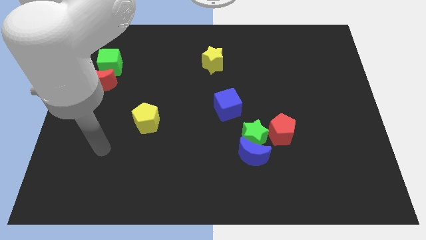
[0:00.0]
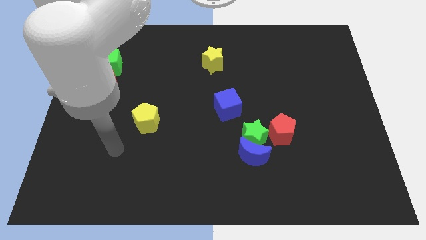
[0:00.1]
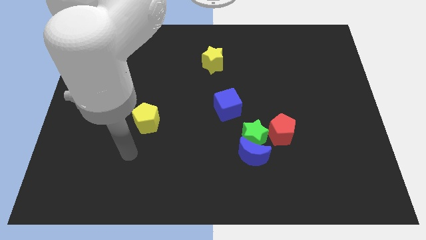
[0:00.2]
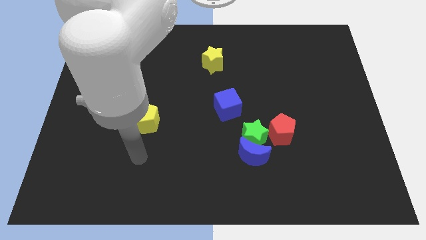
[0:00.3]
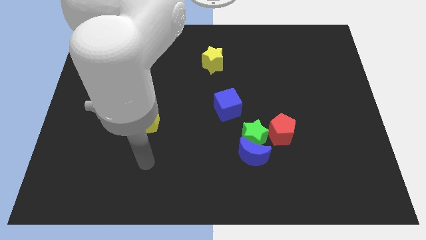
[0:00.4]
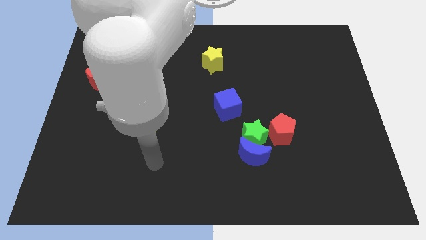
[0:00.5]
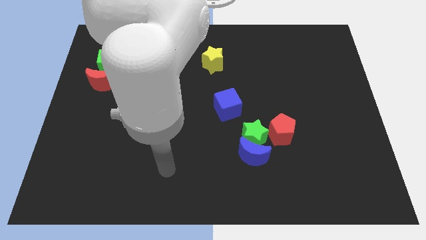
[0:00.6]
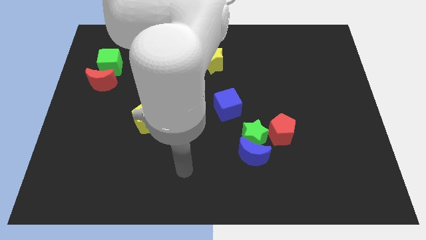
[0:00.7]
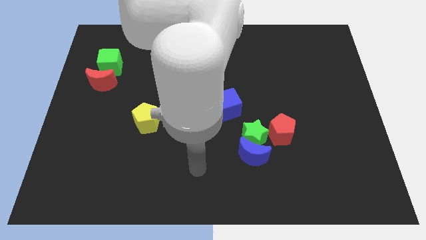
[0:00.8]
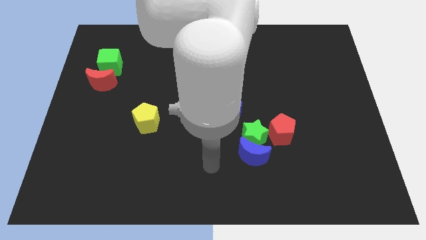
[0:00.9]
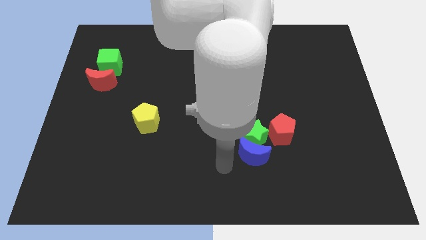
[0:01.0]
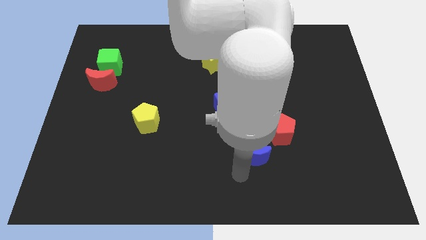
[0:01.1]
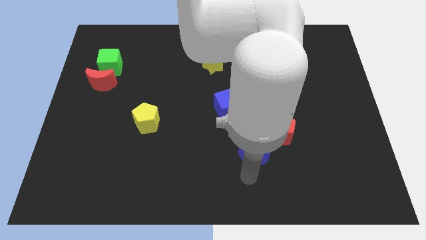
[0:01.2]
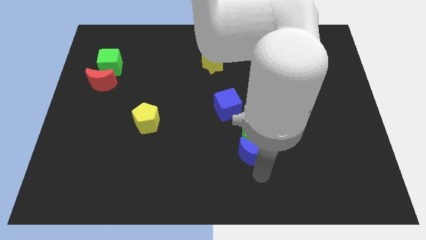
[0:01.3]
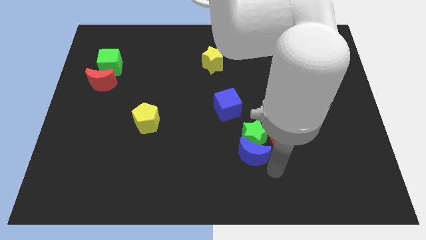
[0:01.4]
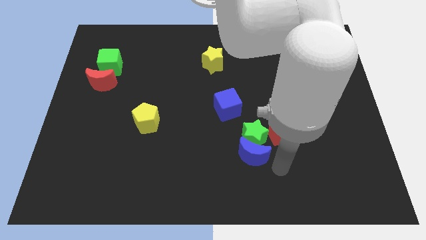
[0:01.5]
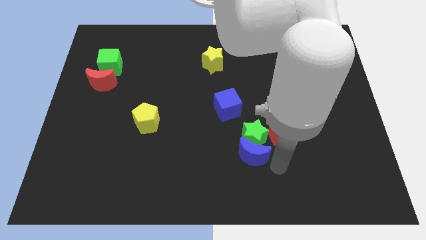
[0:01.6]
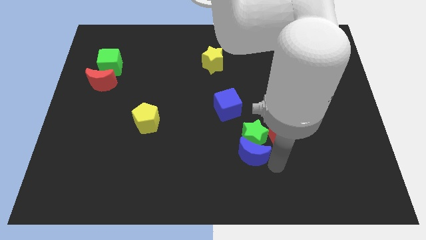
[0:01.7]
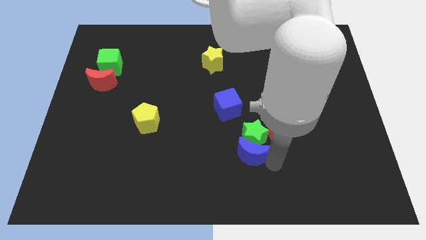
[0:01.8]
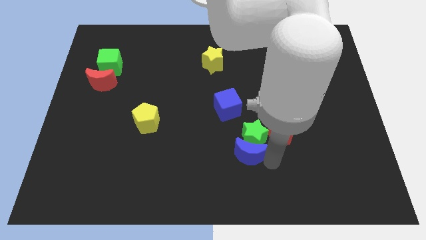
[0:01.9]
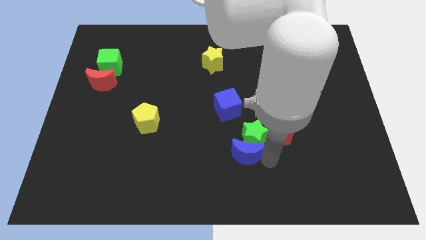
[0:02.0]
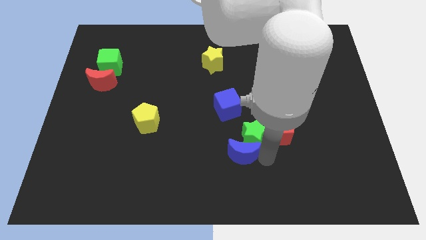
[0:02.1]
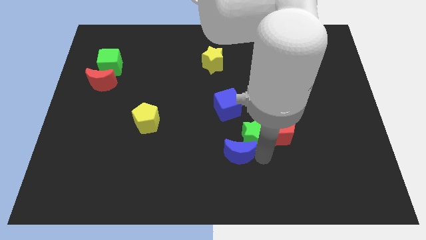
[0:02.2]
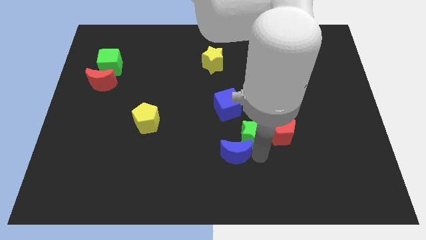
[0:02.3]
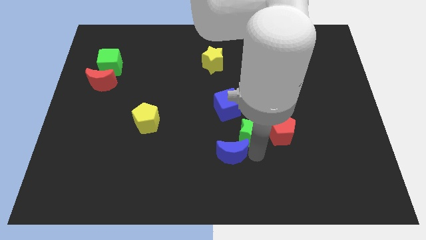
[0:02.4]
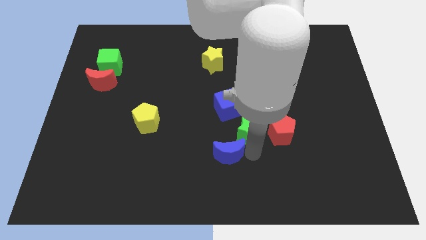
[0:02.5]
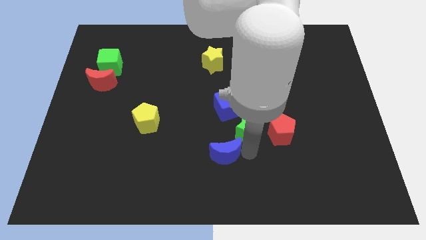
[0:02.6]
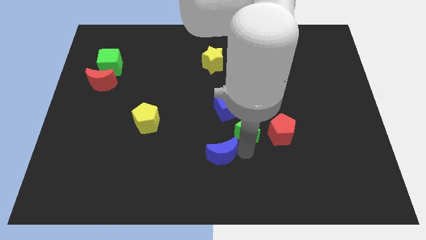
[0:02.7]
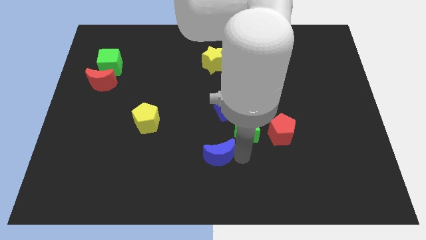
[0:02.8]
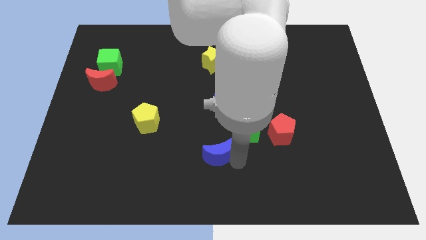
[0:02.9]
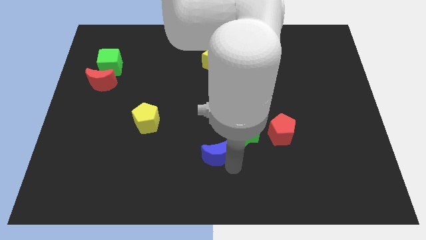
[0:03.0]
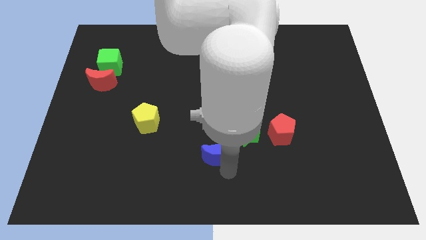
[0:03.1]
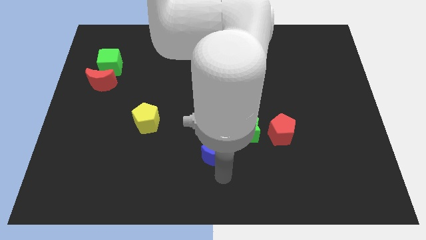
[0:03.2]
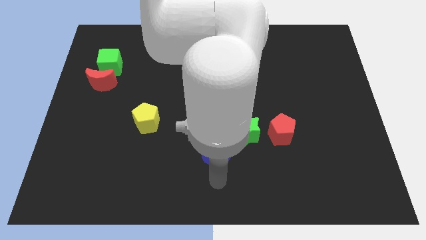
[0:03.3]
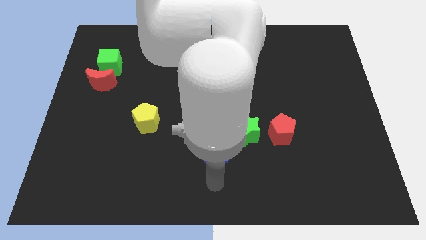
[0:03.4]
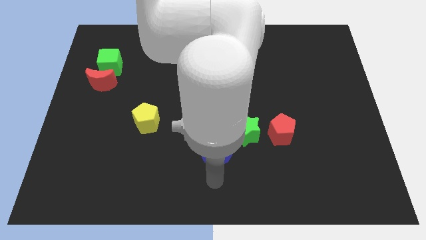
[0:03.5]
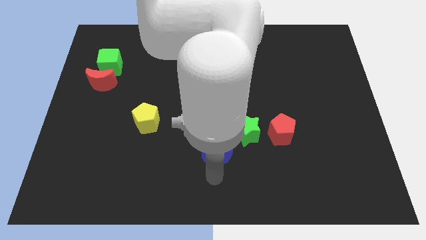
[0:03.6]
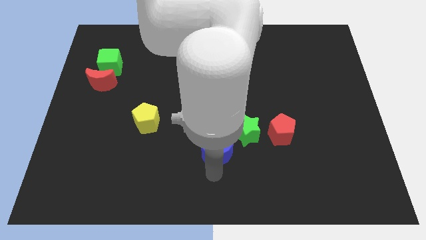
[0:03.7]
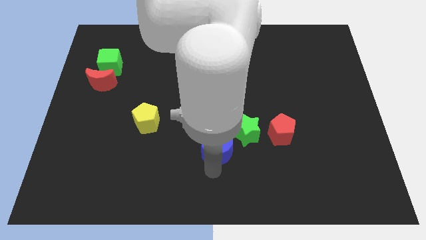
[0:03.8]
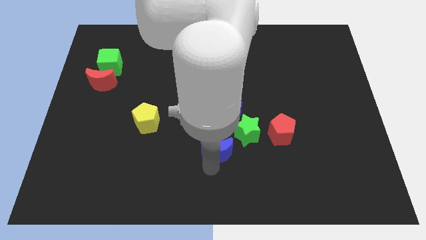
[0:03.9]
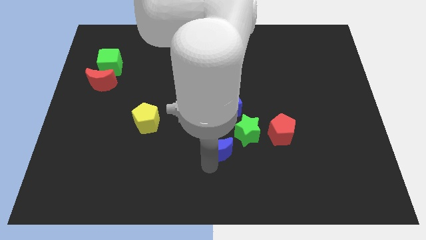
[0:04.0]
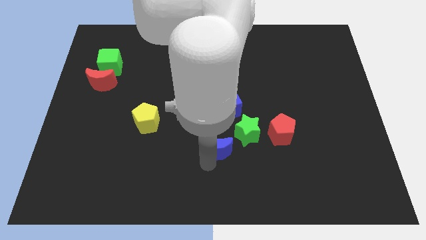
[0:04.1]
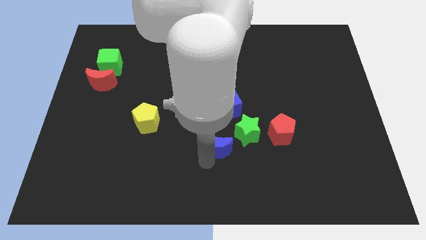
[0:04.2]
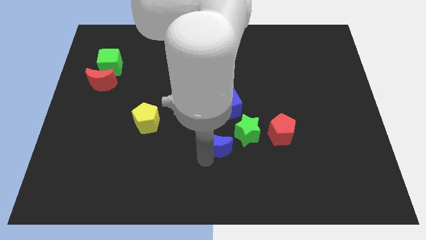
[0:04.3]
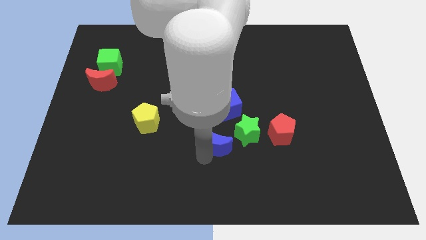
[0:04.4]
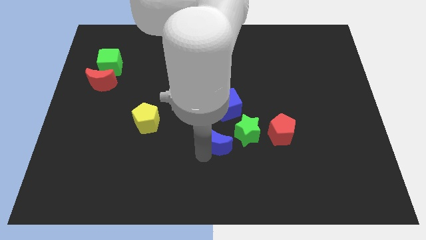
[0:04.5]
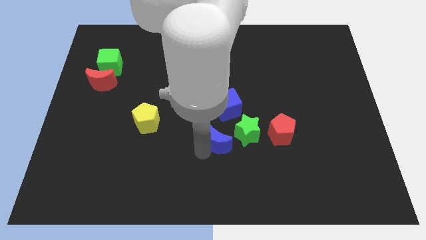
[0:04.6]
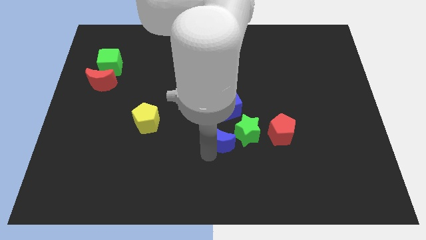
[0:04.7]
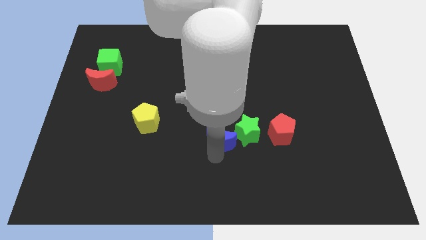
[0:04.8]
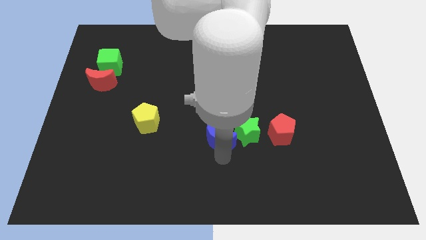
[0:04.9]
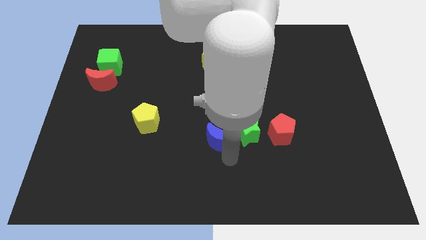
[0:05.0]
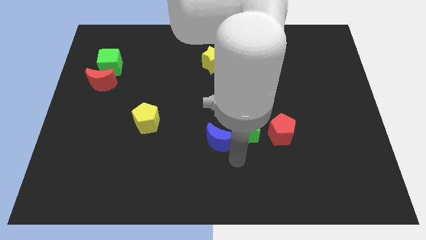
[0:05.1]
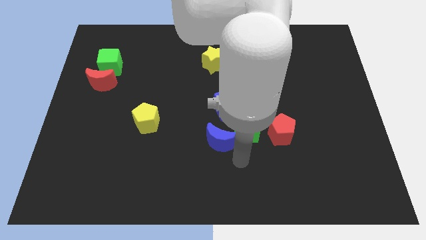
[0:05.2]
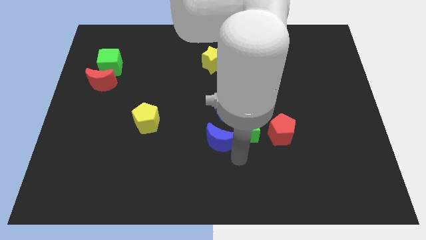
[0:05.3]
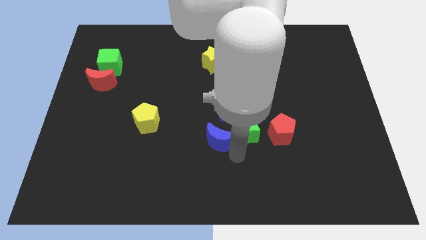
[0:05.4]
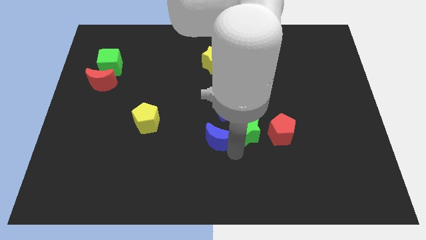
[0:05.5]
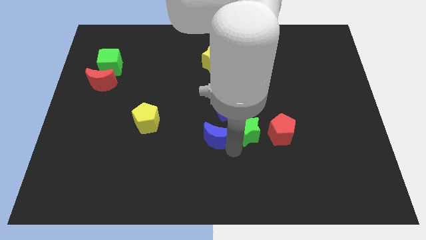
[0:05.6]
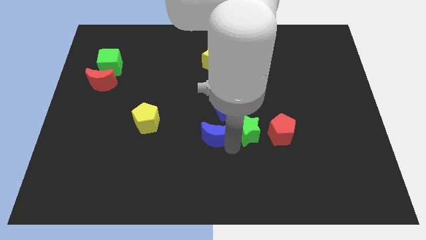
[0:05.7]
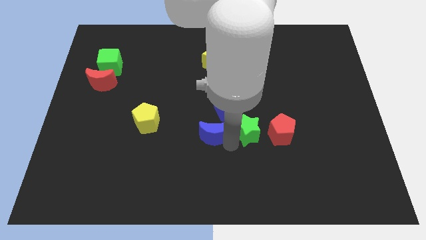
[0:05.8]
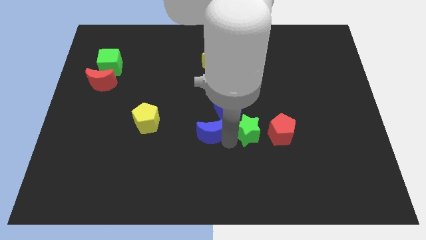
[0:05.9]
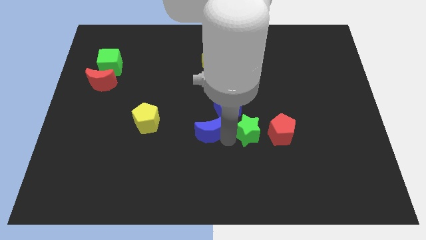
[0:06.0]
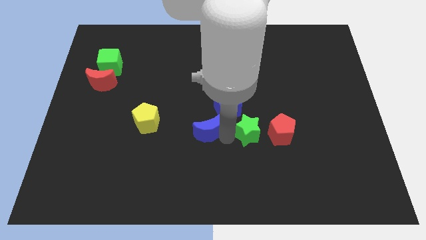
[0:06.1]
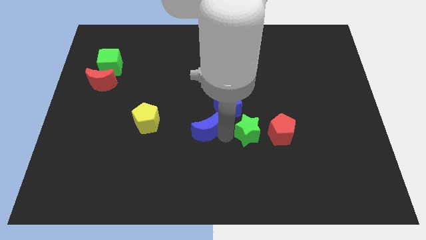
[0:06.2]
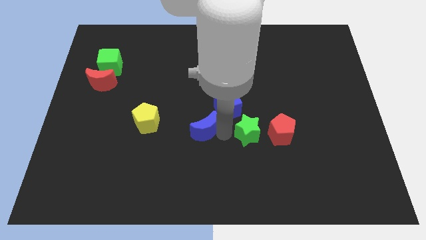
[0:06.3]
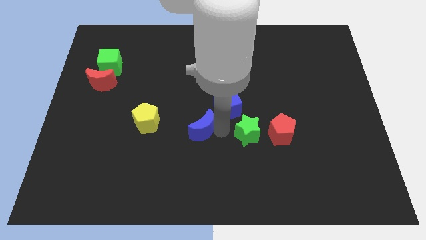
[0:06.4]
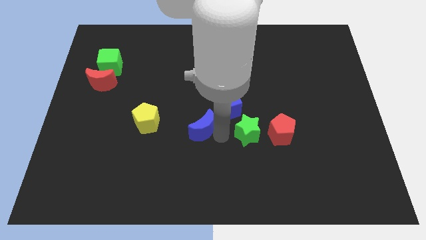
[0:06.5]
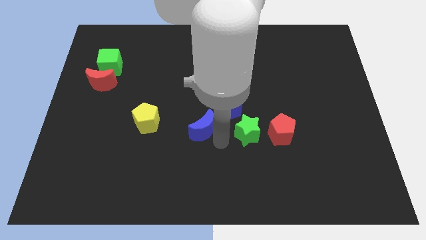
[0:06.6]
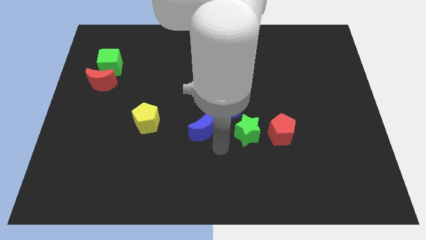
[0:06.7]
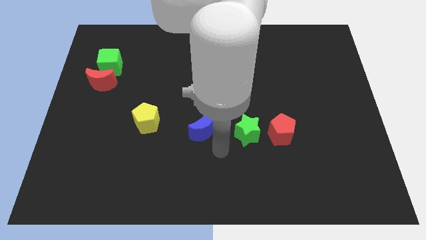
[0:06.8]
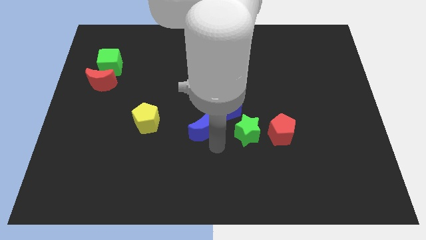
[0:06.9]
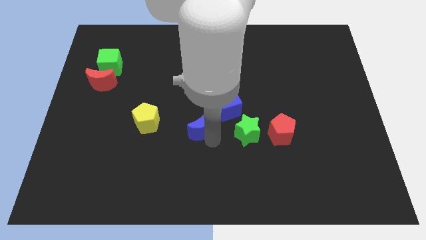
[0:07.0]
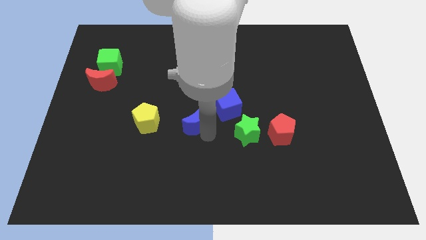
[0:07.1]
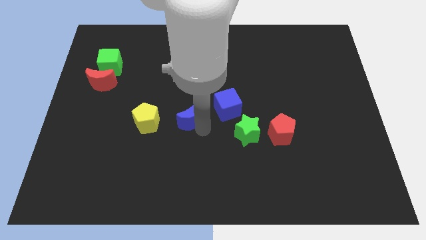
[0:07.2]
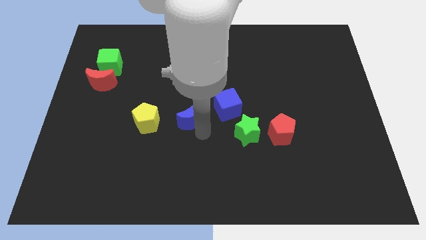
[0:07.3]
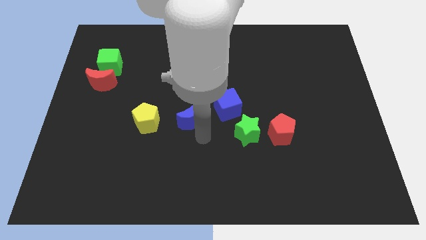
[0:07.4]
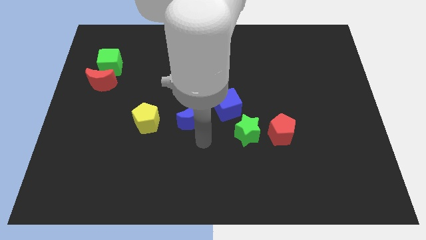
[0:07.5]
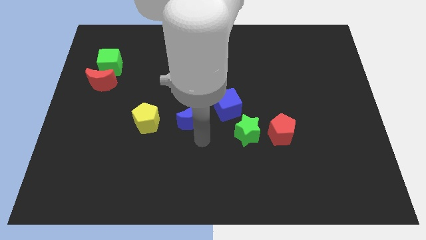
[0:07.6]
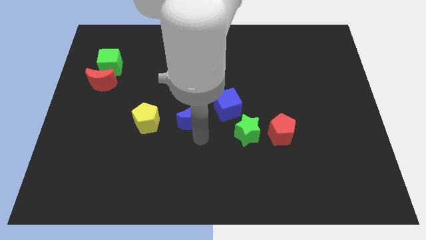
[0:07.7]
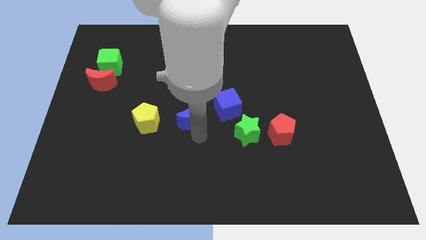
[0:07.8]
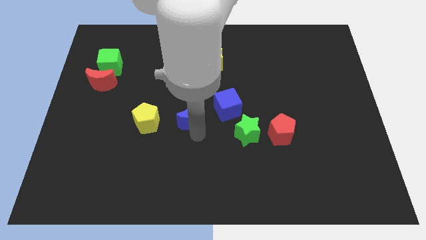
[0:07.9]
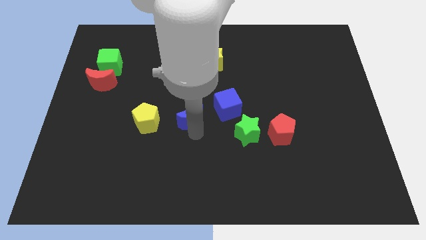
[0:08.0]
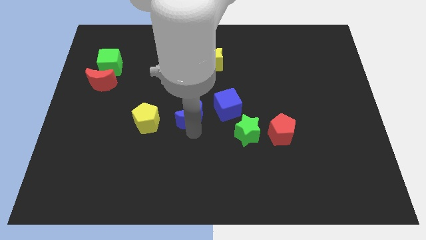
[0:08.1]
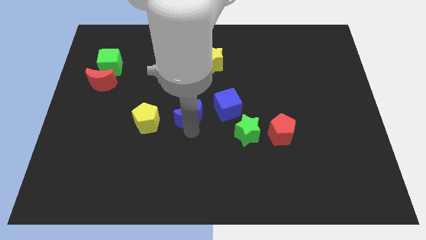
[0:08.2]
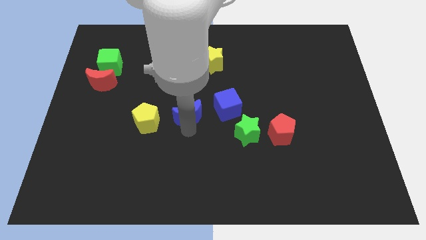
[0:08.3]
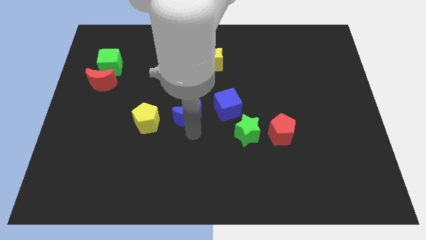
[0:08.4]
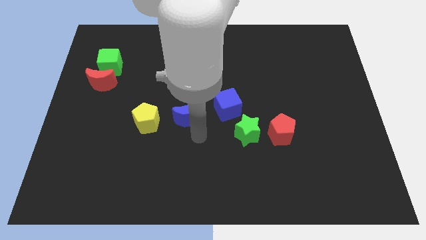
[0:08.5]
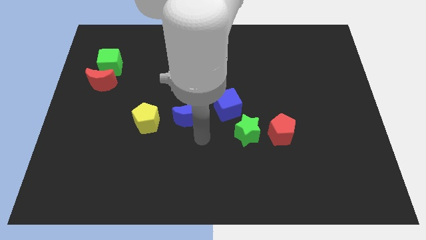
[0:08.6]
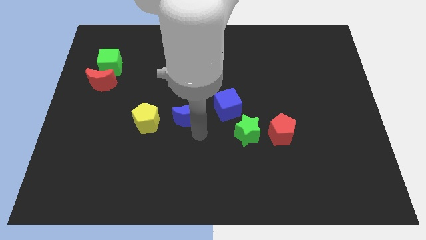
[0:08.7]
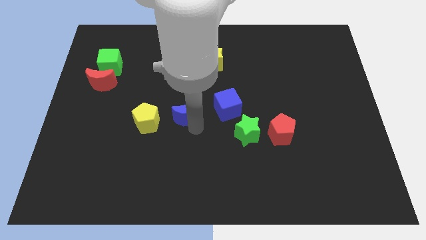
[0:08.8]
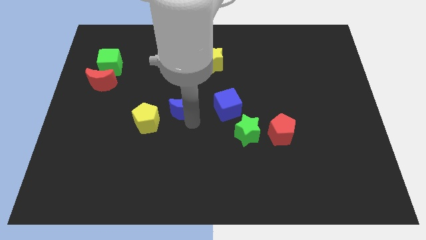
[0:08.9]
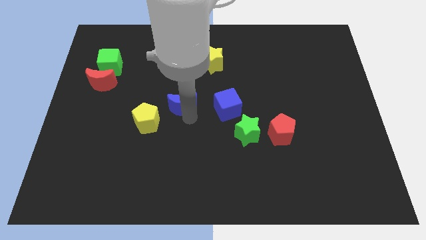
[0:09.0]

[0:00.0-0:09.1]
push the blue moon upwards and then to the left
